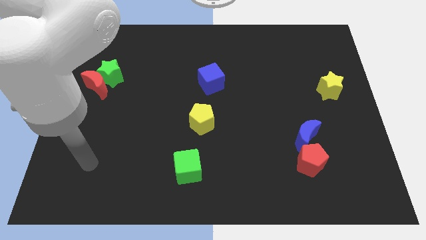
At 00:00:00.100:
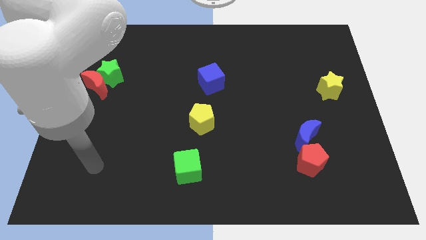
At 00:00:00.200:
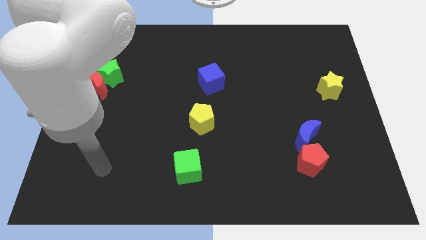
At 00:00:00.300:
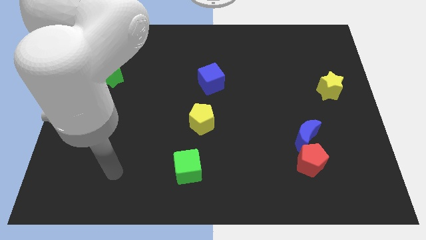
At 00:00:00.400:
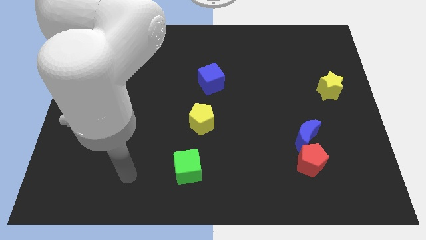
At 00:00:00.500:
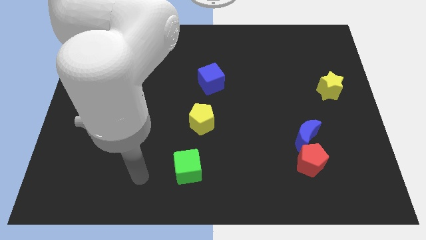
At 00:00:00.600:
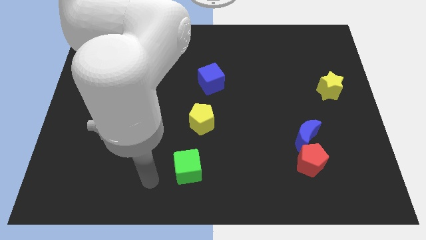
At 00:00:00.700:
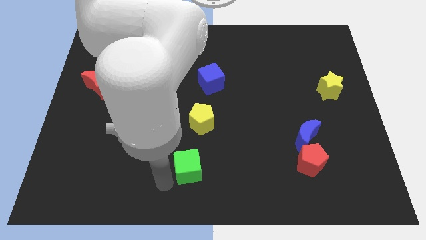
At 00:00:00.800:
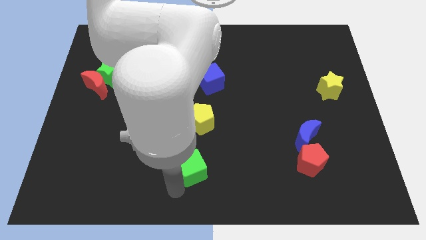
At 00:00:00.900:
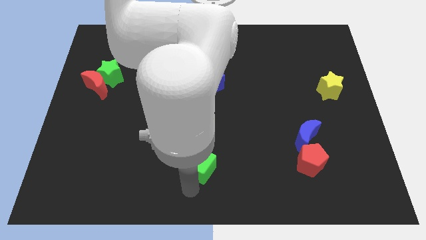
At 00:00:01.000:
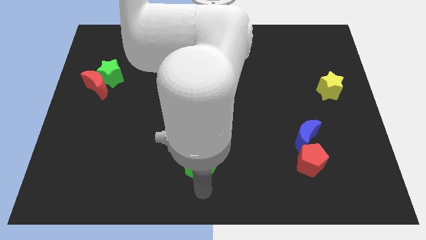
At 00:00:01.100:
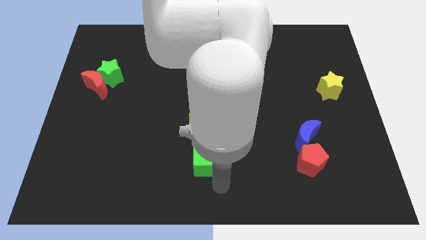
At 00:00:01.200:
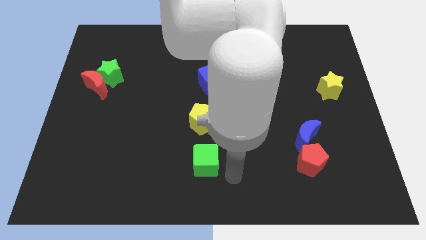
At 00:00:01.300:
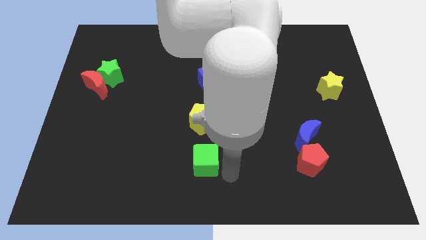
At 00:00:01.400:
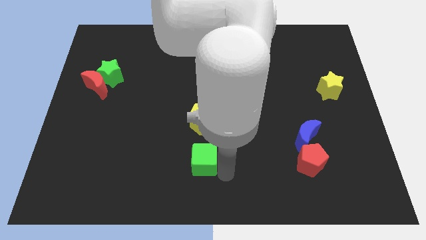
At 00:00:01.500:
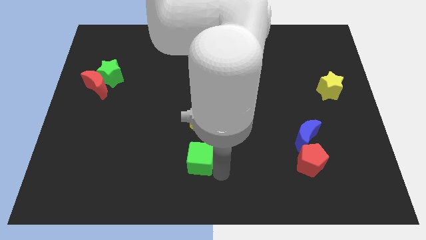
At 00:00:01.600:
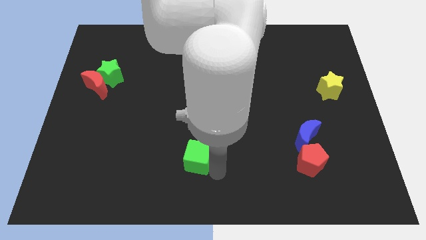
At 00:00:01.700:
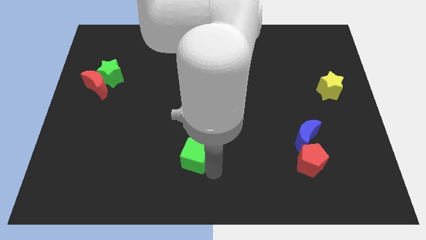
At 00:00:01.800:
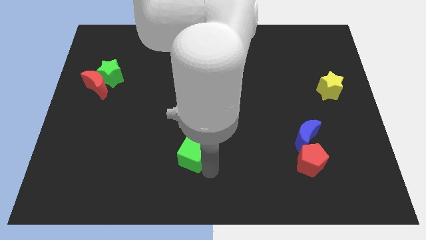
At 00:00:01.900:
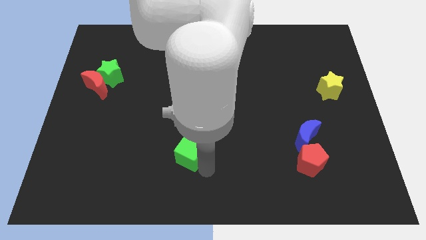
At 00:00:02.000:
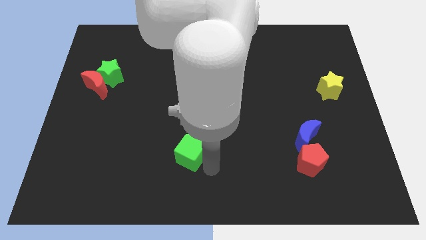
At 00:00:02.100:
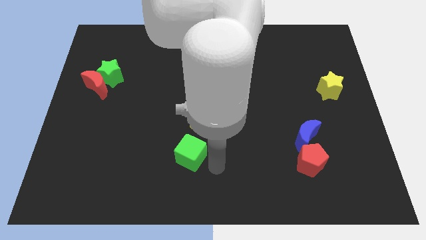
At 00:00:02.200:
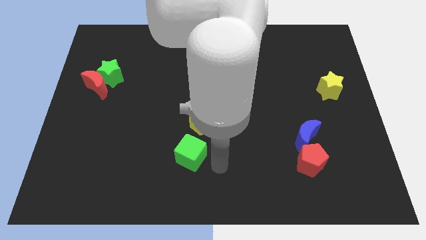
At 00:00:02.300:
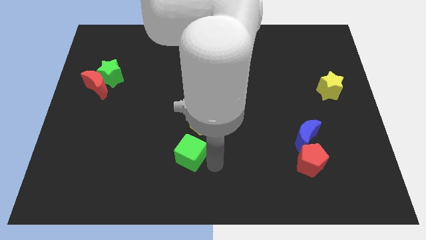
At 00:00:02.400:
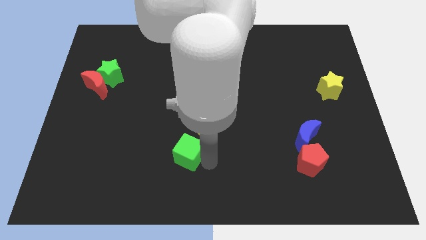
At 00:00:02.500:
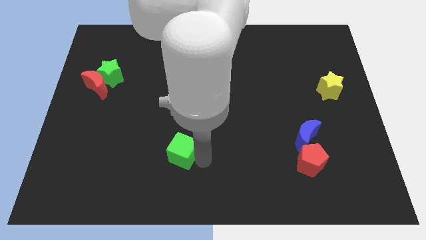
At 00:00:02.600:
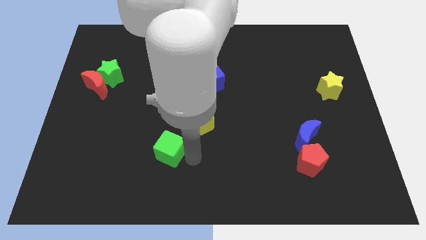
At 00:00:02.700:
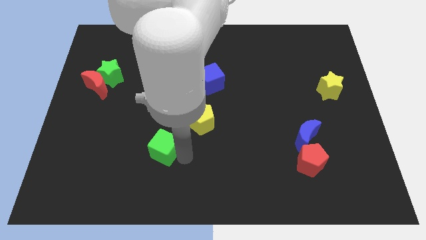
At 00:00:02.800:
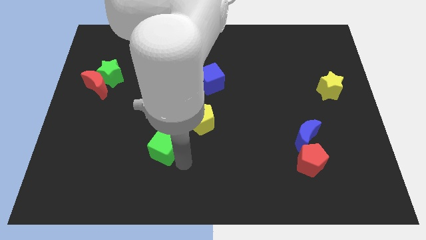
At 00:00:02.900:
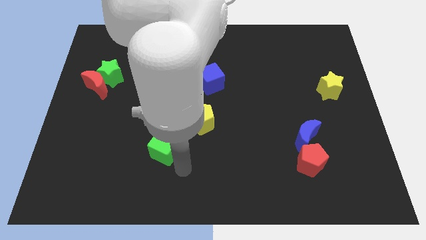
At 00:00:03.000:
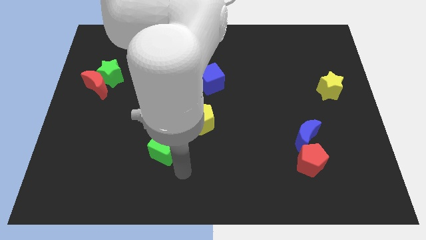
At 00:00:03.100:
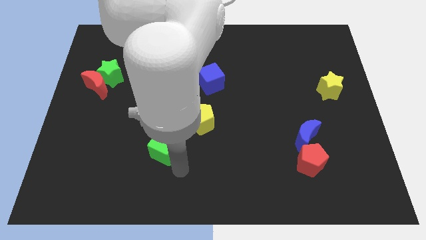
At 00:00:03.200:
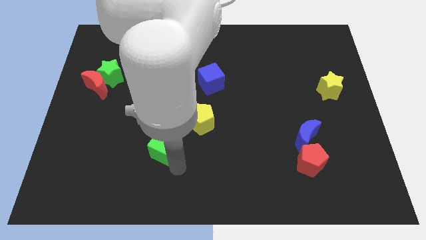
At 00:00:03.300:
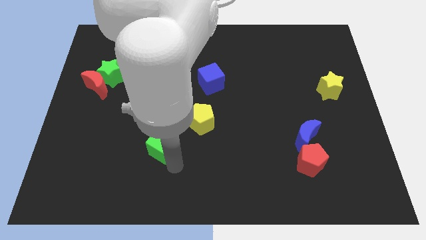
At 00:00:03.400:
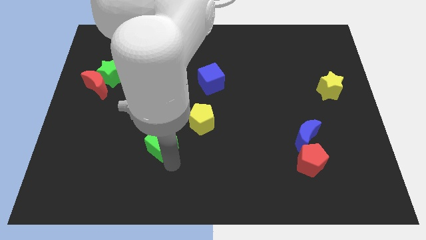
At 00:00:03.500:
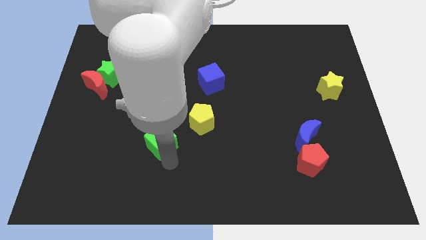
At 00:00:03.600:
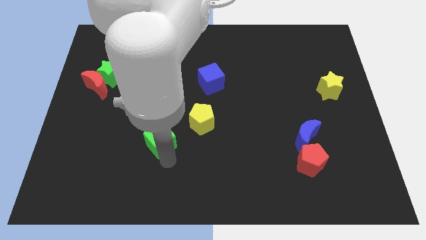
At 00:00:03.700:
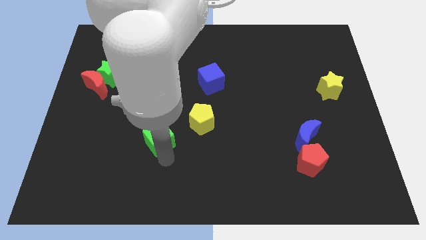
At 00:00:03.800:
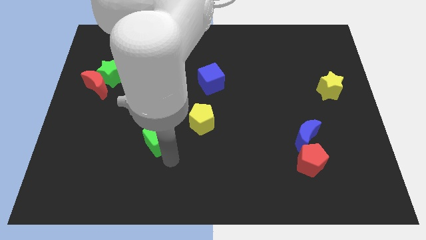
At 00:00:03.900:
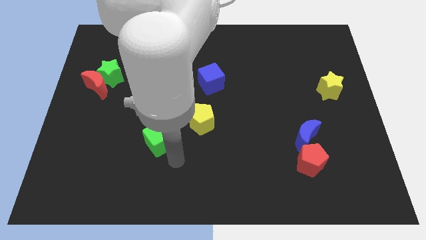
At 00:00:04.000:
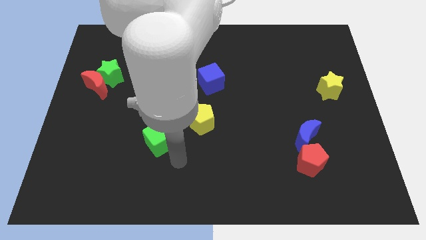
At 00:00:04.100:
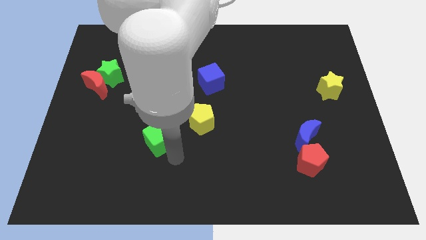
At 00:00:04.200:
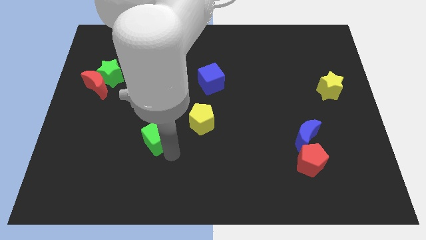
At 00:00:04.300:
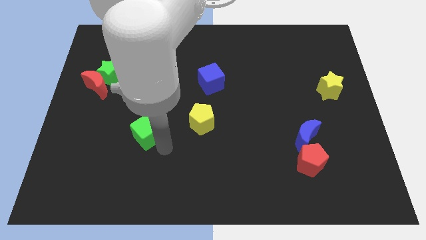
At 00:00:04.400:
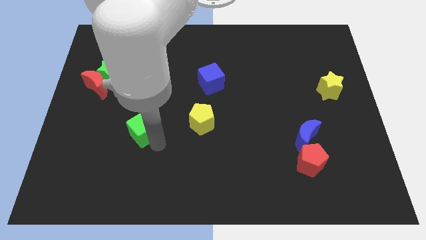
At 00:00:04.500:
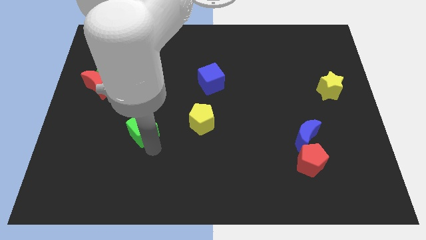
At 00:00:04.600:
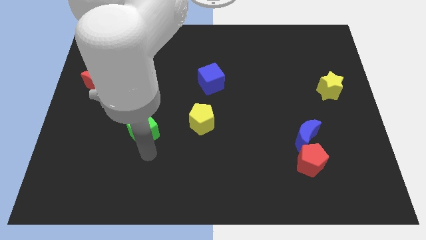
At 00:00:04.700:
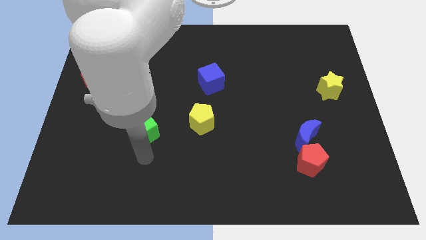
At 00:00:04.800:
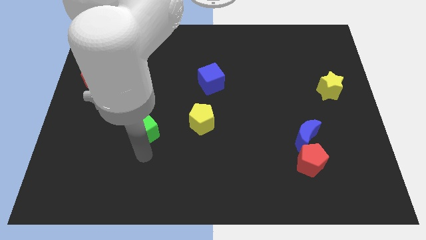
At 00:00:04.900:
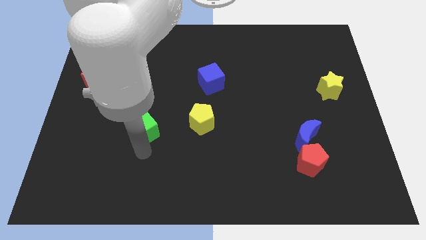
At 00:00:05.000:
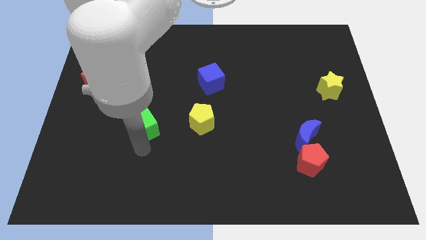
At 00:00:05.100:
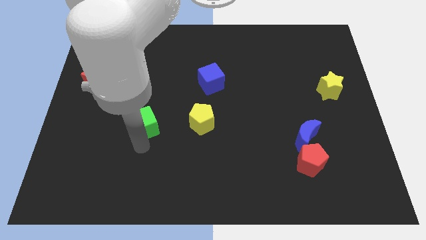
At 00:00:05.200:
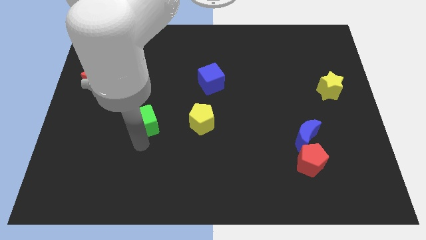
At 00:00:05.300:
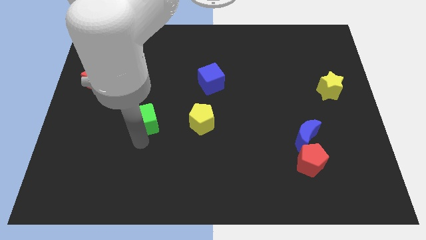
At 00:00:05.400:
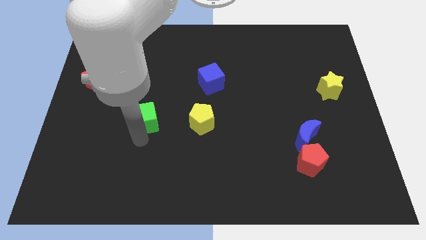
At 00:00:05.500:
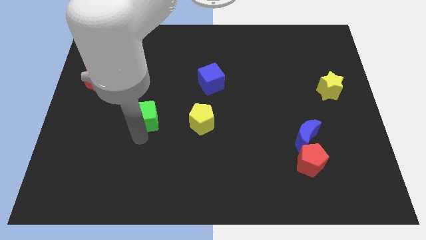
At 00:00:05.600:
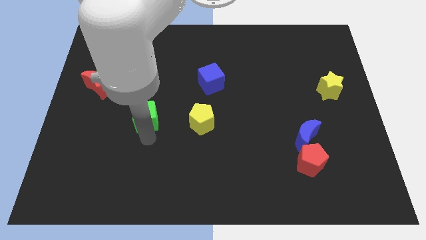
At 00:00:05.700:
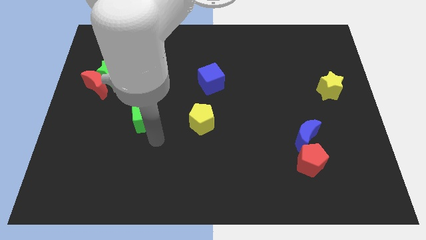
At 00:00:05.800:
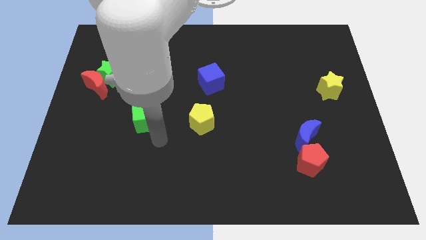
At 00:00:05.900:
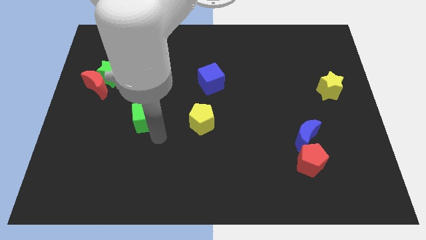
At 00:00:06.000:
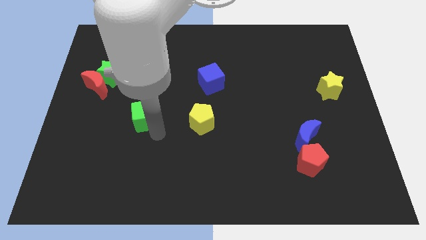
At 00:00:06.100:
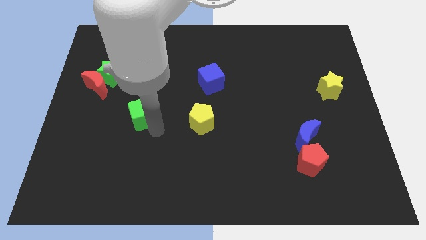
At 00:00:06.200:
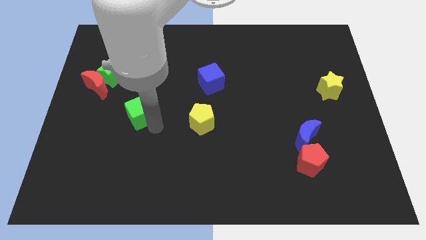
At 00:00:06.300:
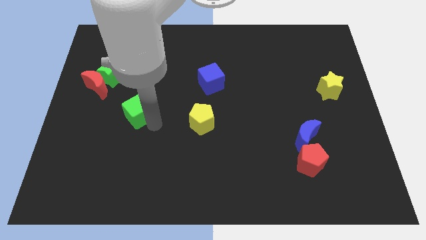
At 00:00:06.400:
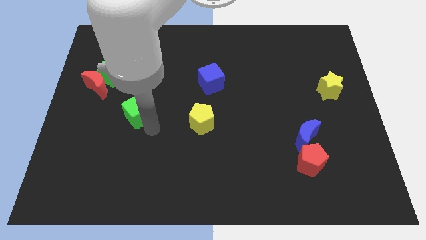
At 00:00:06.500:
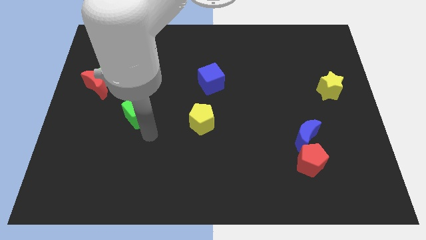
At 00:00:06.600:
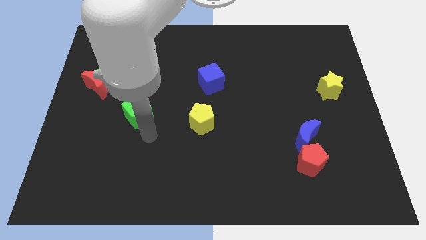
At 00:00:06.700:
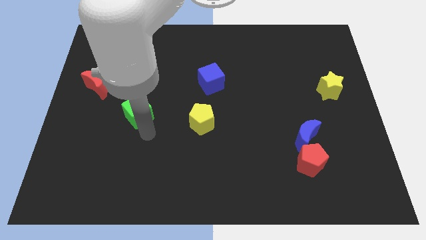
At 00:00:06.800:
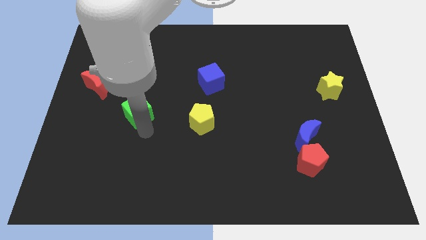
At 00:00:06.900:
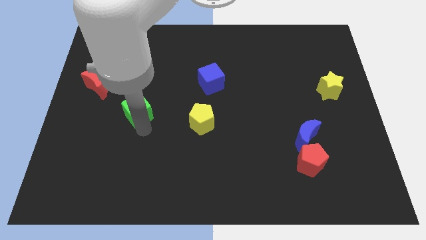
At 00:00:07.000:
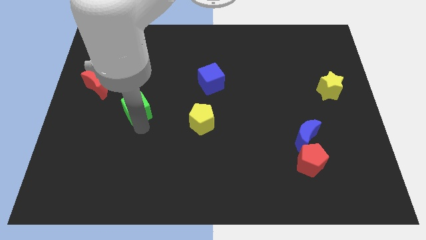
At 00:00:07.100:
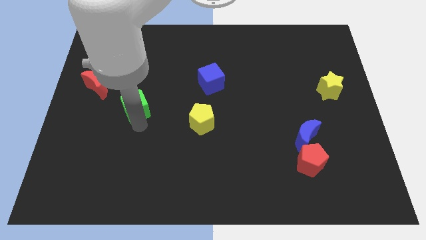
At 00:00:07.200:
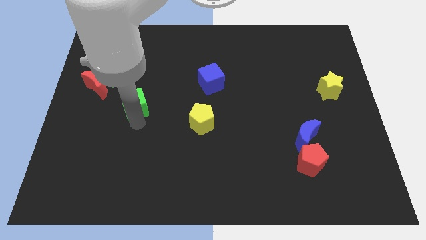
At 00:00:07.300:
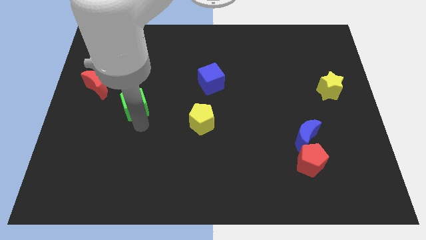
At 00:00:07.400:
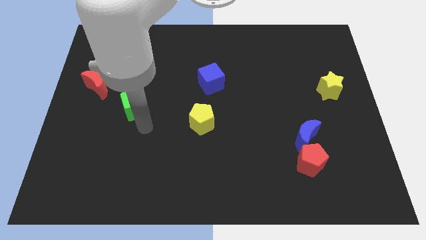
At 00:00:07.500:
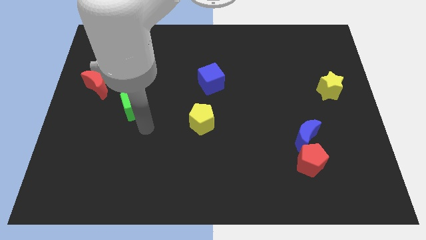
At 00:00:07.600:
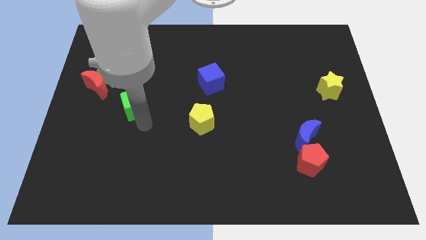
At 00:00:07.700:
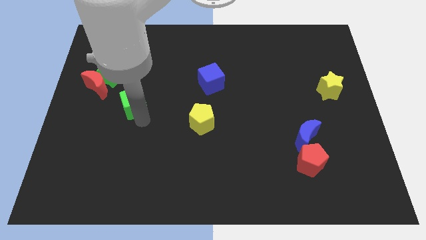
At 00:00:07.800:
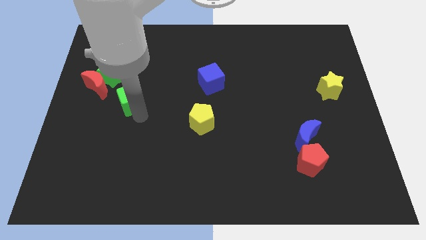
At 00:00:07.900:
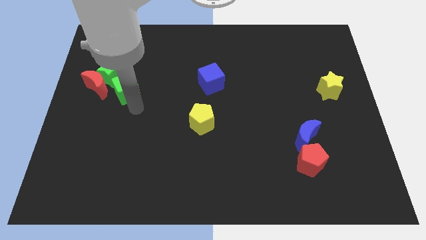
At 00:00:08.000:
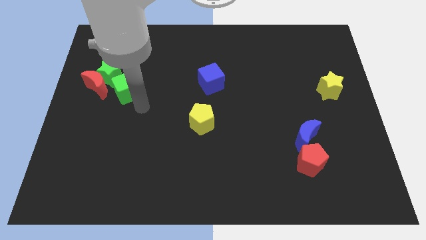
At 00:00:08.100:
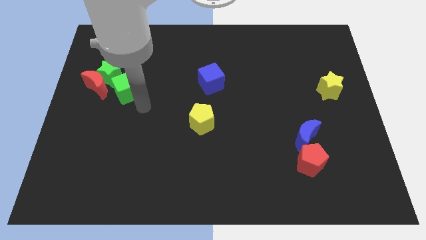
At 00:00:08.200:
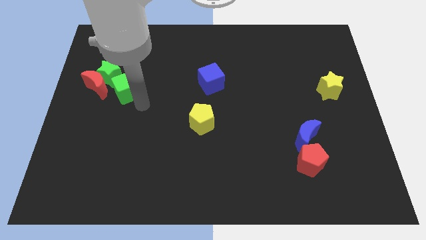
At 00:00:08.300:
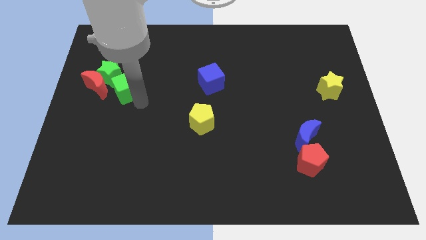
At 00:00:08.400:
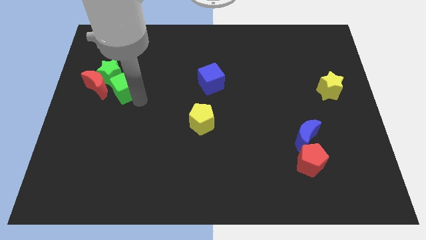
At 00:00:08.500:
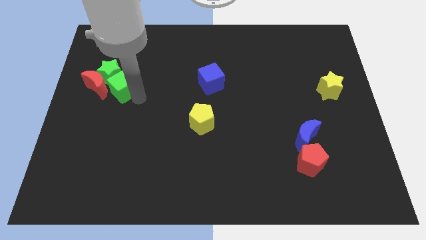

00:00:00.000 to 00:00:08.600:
slide the green cube to the green star
